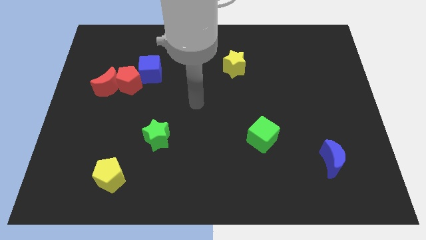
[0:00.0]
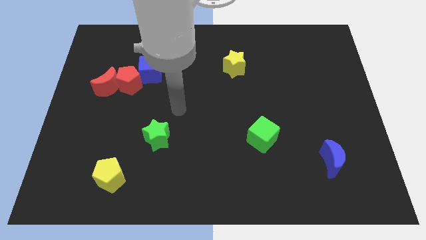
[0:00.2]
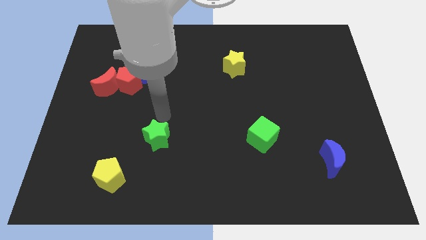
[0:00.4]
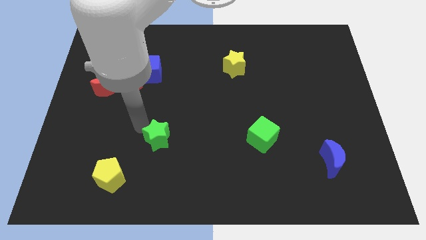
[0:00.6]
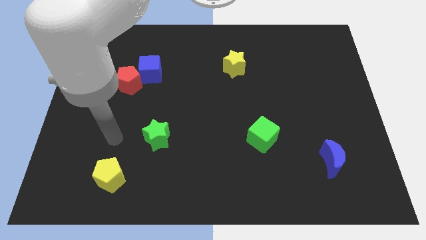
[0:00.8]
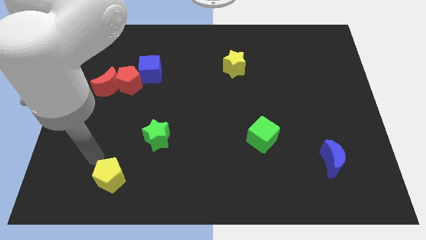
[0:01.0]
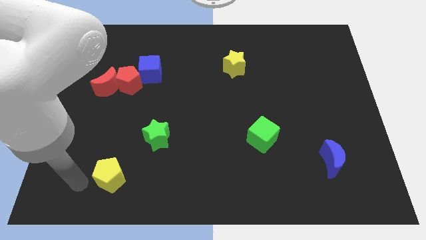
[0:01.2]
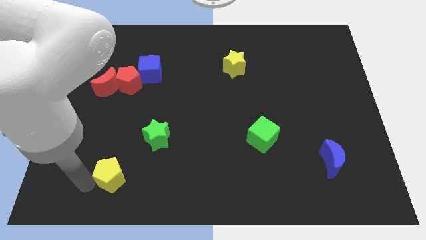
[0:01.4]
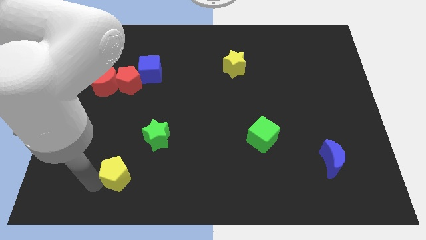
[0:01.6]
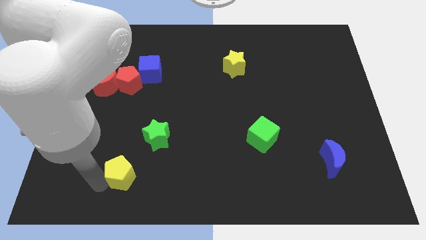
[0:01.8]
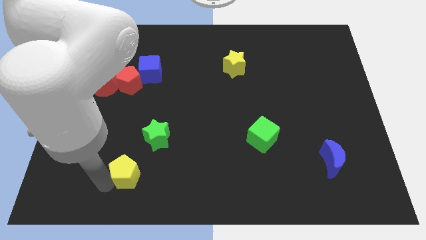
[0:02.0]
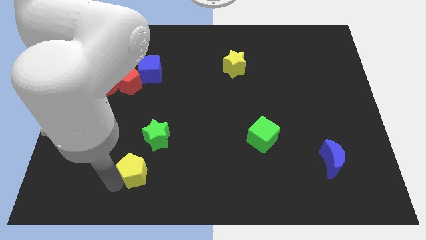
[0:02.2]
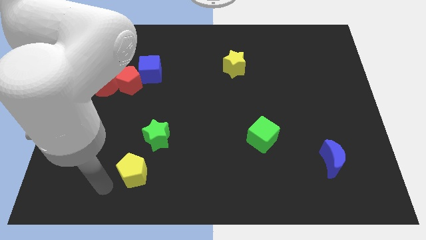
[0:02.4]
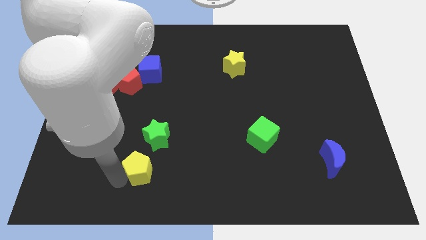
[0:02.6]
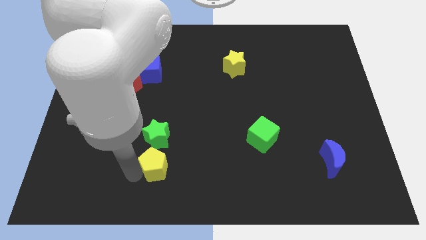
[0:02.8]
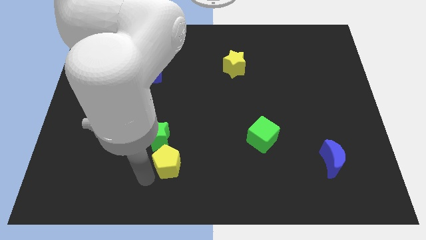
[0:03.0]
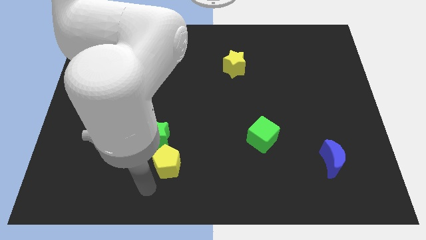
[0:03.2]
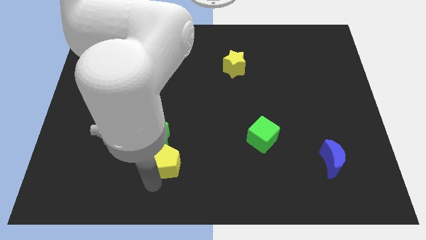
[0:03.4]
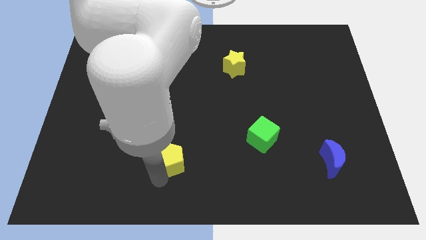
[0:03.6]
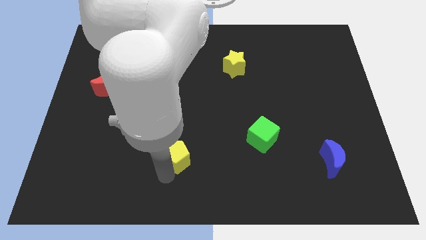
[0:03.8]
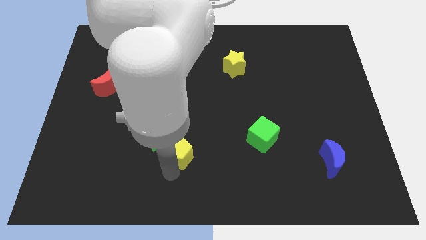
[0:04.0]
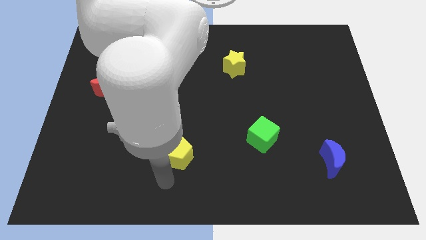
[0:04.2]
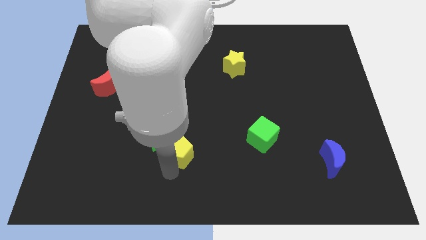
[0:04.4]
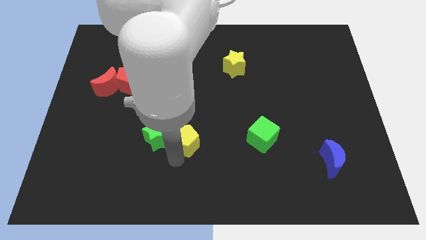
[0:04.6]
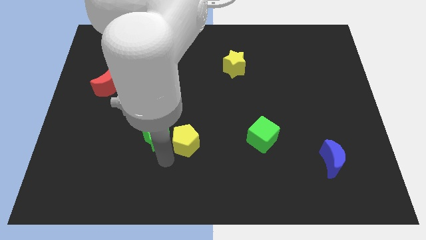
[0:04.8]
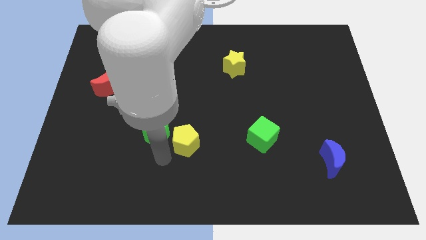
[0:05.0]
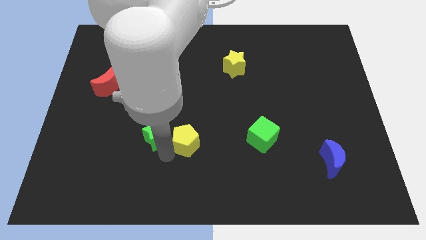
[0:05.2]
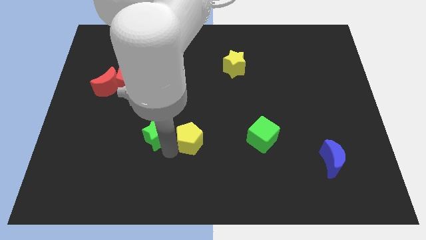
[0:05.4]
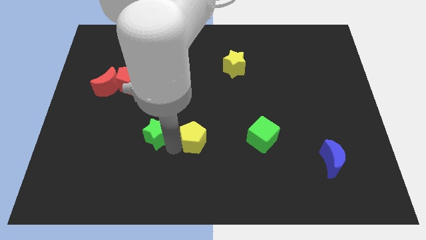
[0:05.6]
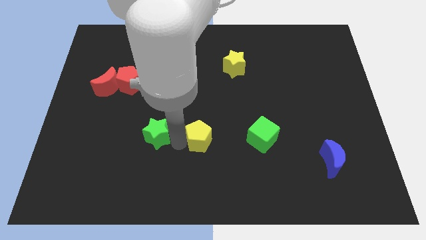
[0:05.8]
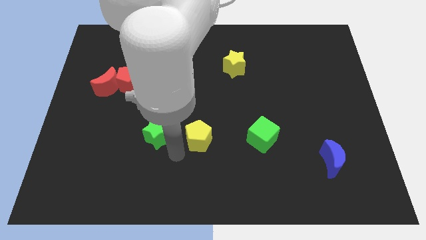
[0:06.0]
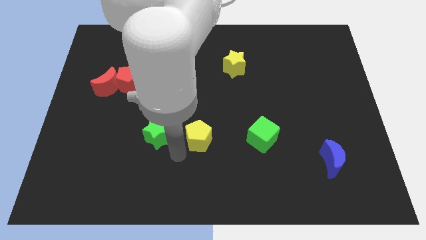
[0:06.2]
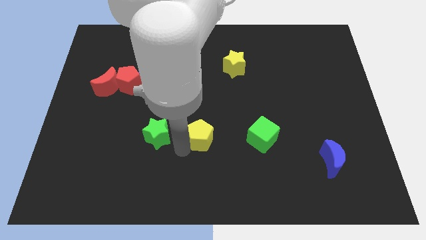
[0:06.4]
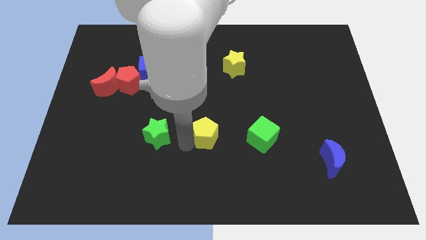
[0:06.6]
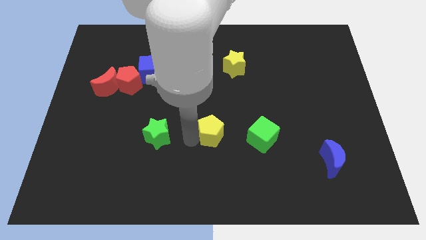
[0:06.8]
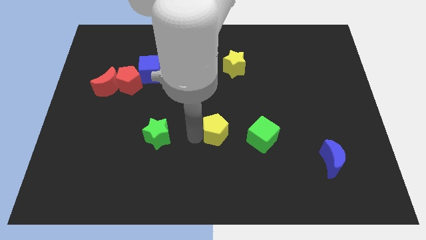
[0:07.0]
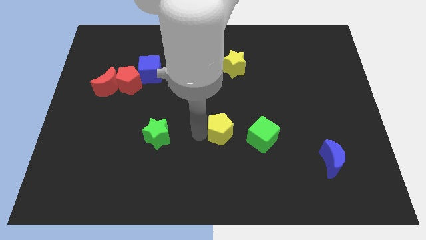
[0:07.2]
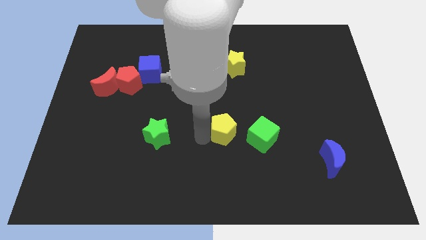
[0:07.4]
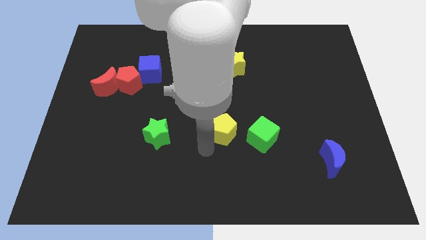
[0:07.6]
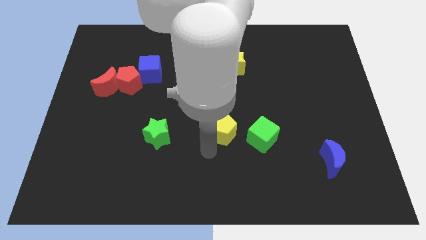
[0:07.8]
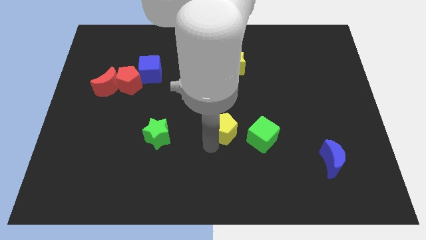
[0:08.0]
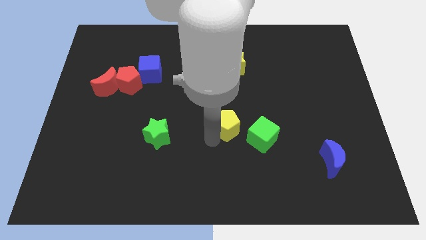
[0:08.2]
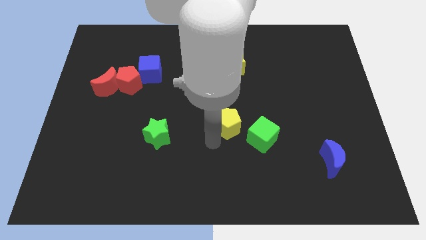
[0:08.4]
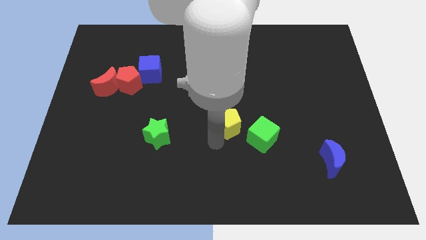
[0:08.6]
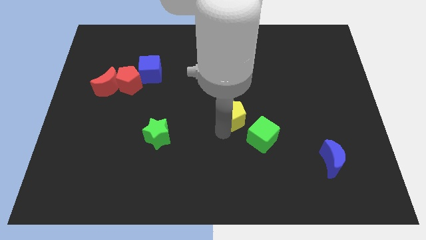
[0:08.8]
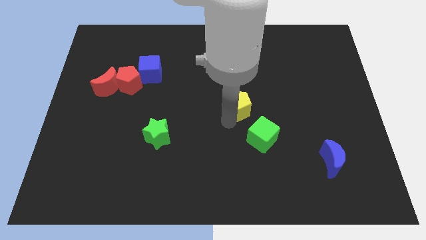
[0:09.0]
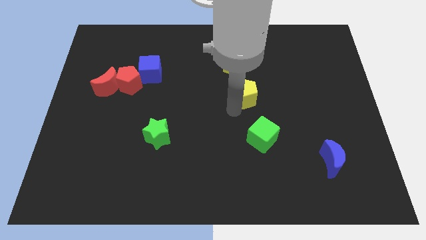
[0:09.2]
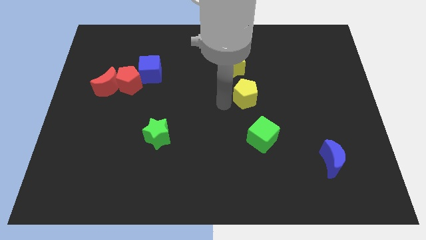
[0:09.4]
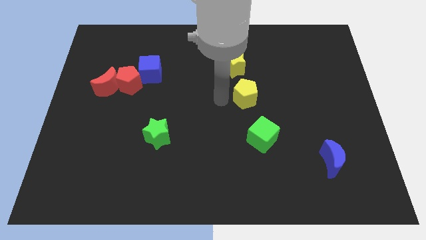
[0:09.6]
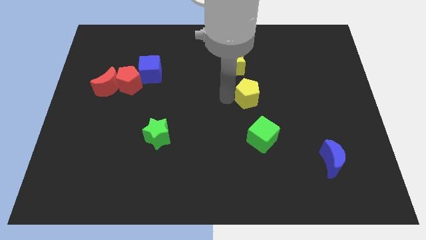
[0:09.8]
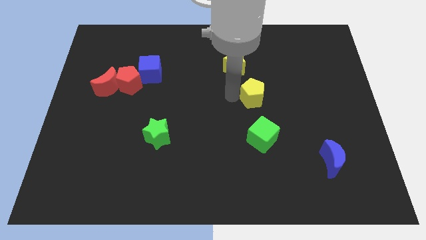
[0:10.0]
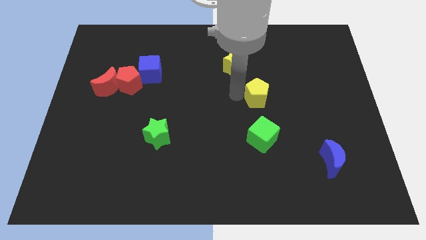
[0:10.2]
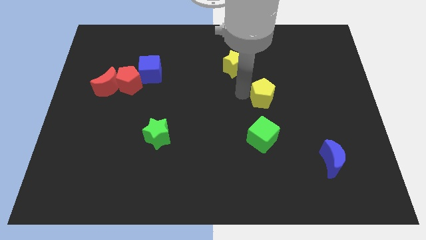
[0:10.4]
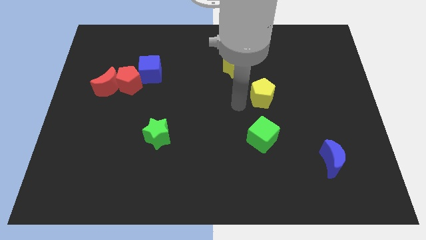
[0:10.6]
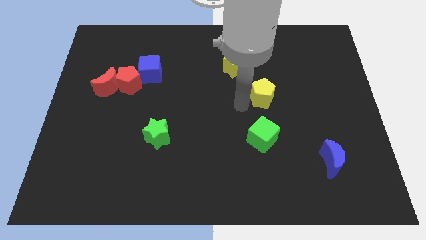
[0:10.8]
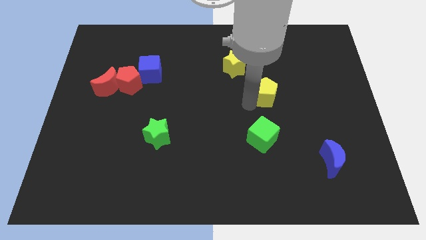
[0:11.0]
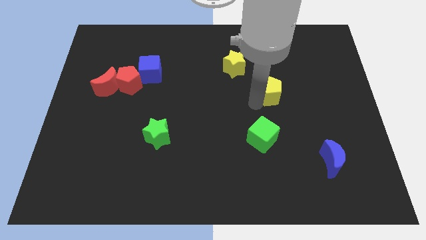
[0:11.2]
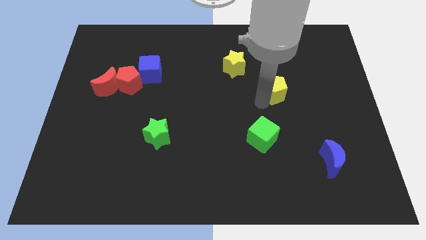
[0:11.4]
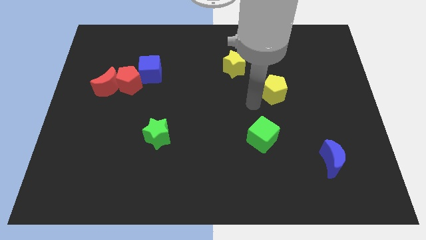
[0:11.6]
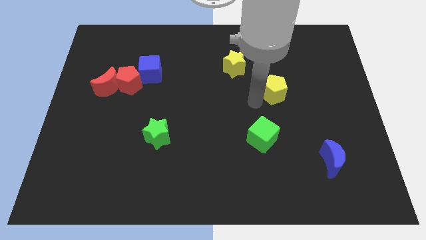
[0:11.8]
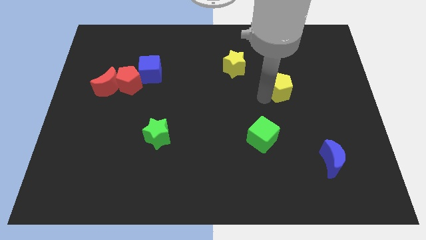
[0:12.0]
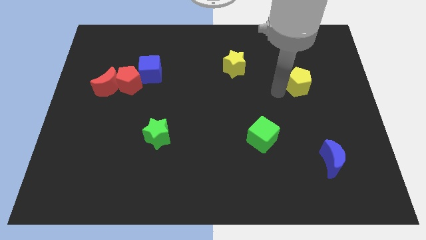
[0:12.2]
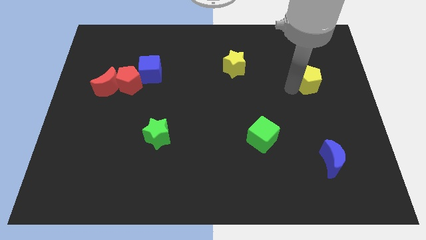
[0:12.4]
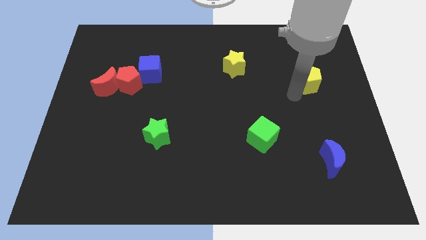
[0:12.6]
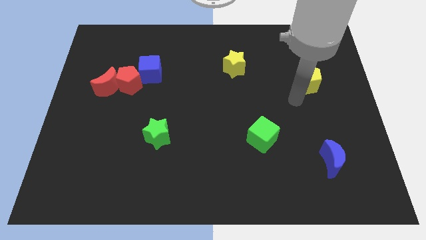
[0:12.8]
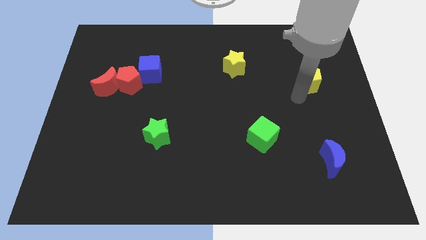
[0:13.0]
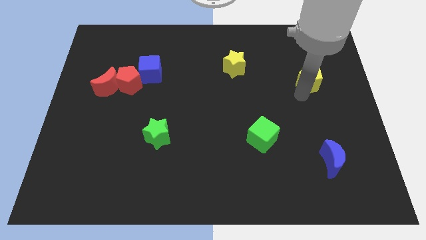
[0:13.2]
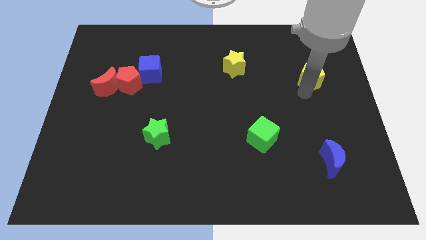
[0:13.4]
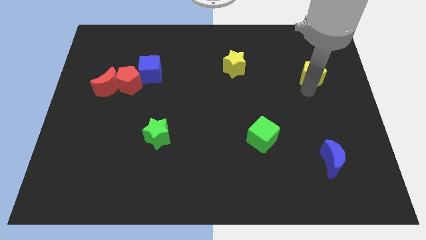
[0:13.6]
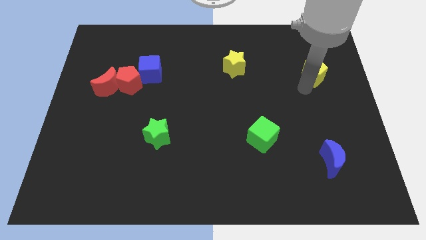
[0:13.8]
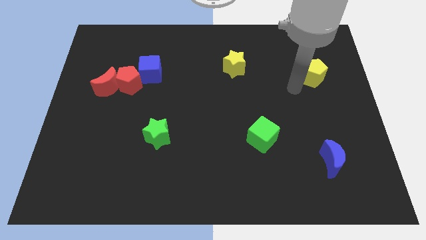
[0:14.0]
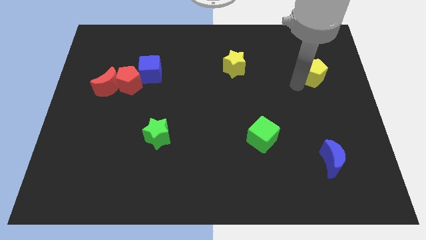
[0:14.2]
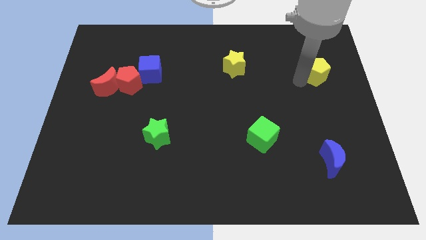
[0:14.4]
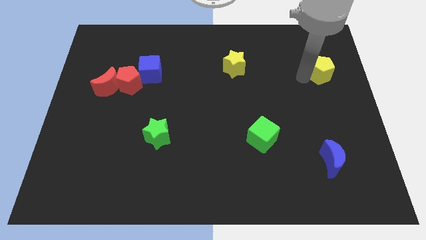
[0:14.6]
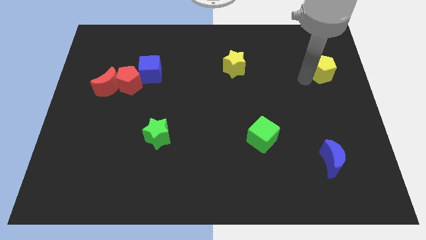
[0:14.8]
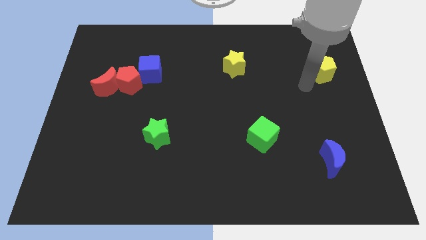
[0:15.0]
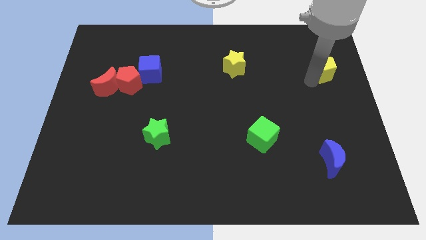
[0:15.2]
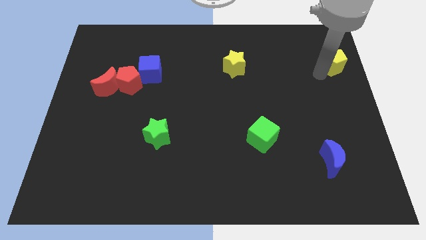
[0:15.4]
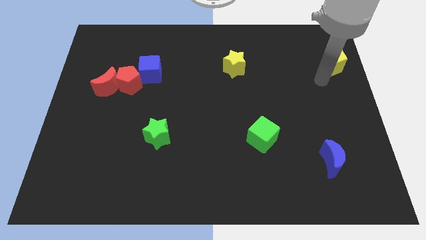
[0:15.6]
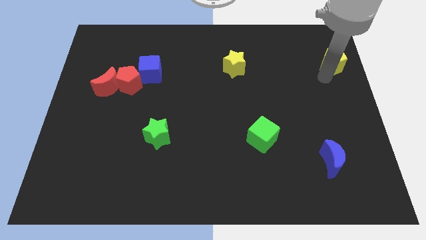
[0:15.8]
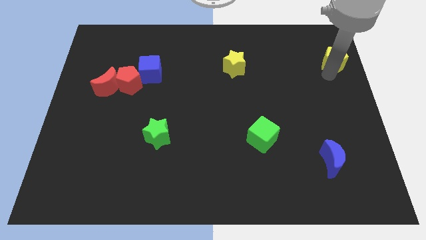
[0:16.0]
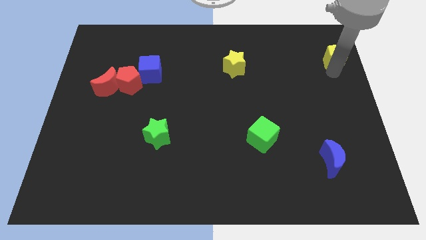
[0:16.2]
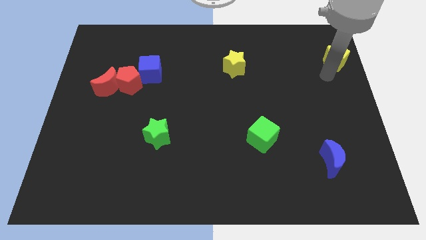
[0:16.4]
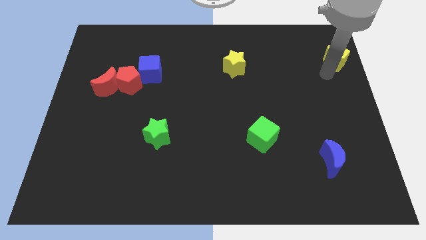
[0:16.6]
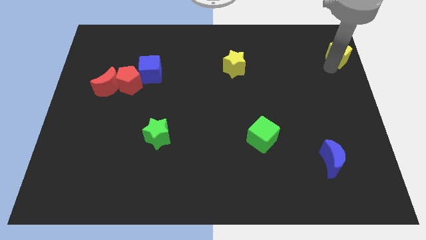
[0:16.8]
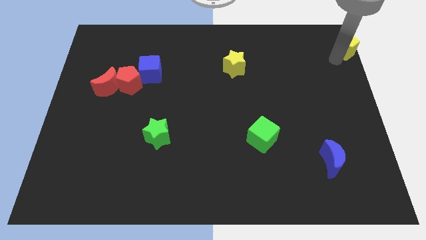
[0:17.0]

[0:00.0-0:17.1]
move the yellow pentagon to the upper right corner
